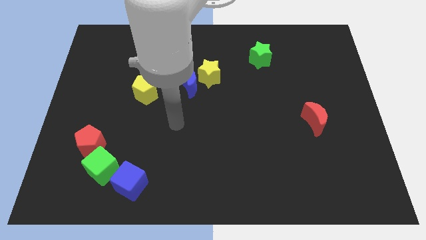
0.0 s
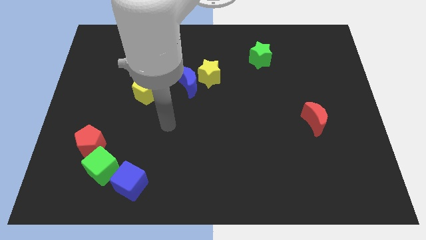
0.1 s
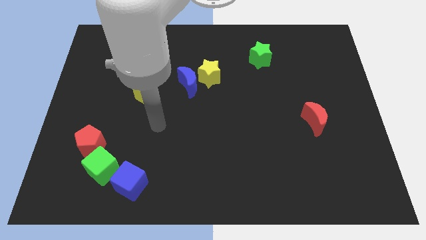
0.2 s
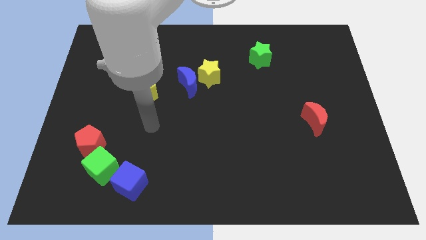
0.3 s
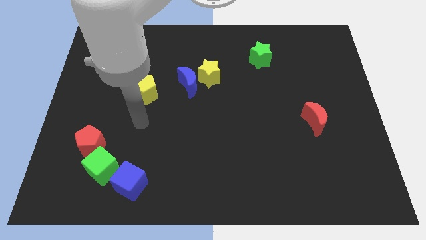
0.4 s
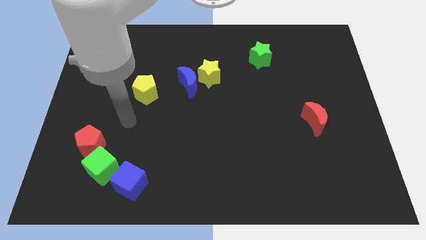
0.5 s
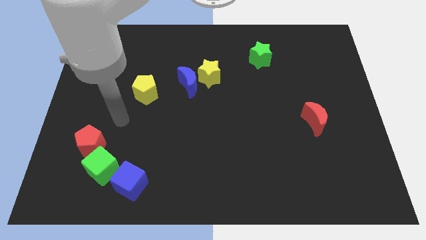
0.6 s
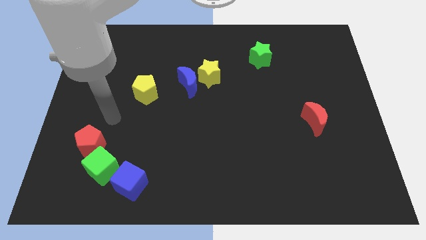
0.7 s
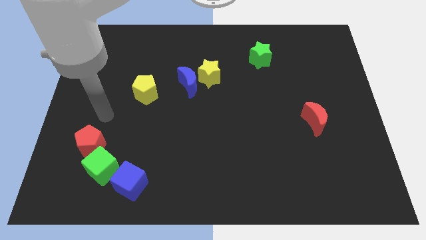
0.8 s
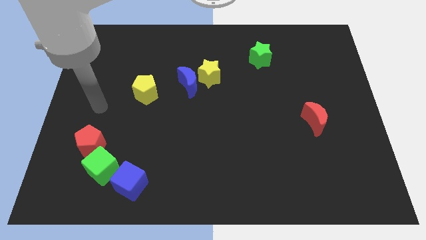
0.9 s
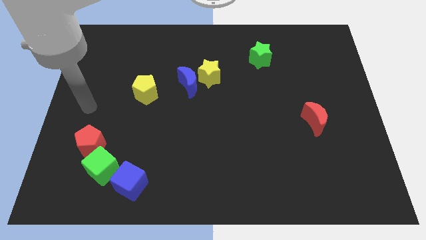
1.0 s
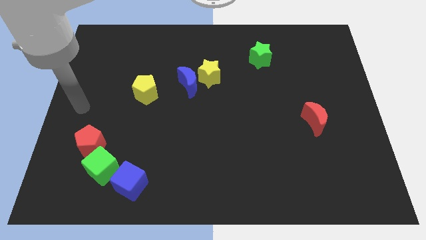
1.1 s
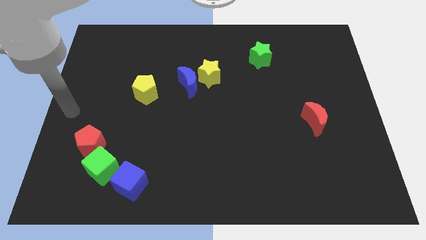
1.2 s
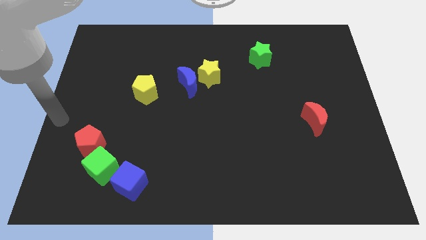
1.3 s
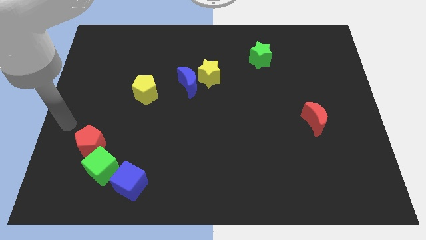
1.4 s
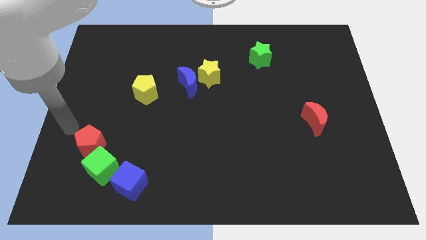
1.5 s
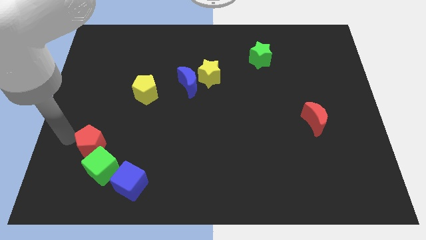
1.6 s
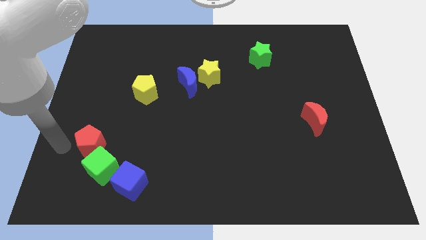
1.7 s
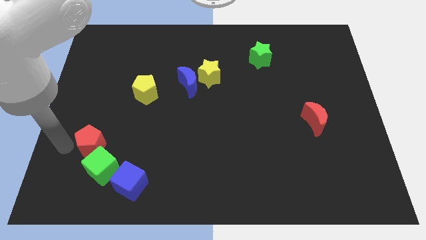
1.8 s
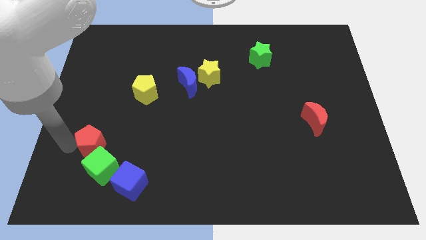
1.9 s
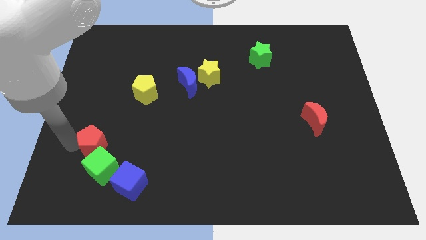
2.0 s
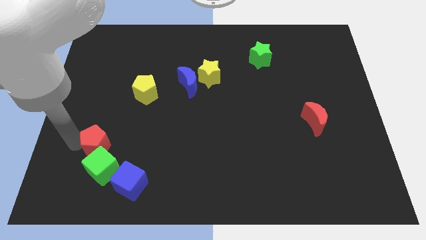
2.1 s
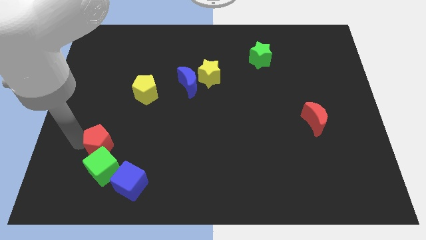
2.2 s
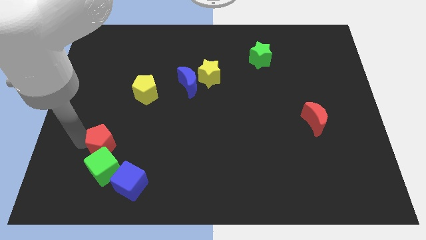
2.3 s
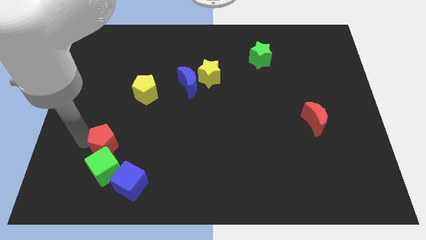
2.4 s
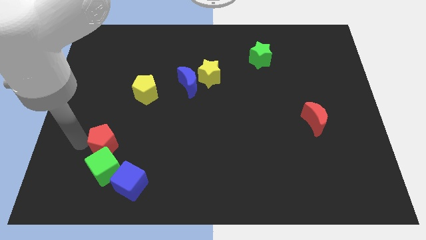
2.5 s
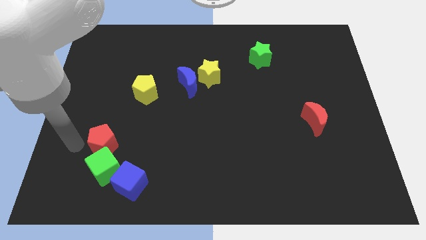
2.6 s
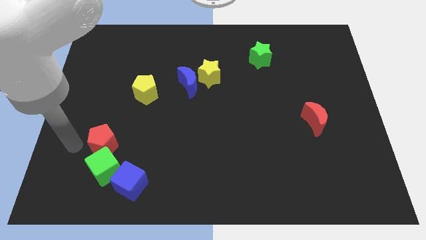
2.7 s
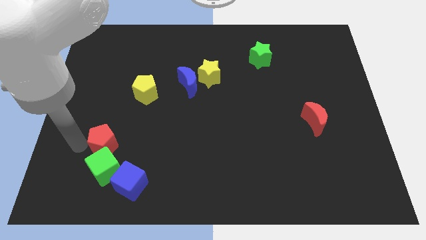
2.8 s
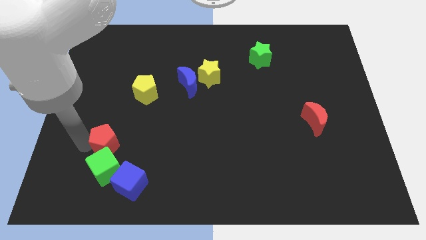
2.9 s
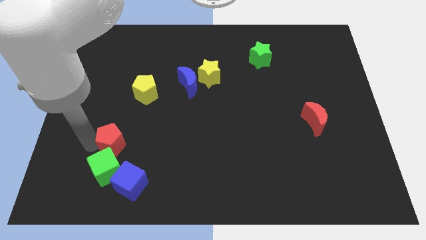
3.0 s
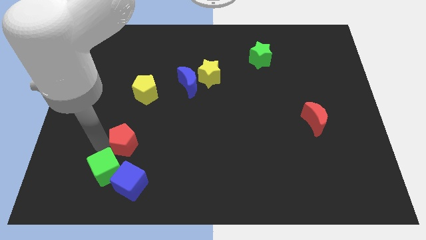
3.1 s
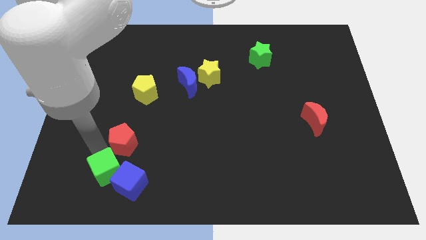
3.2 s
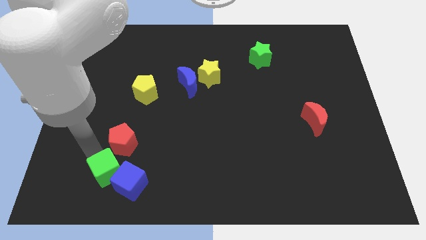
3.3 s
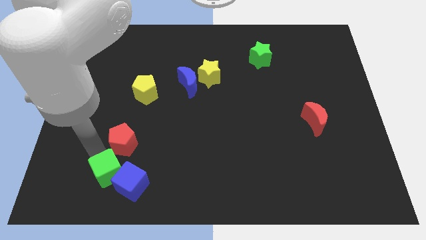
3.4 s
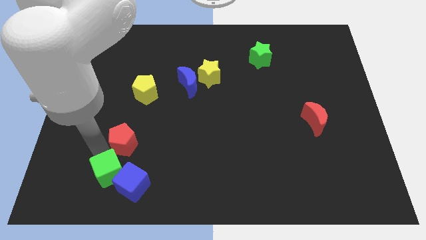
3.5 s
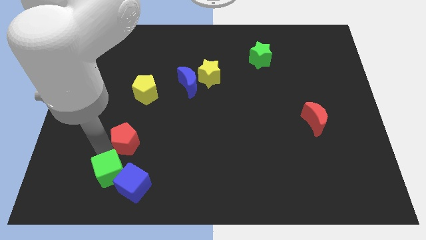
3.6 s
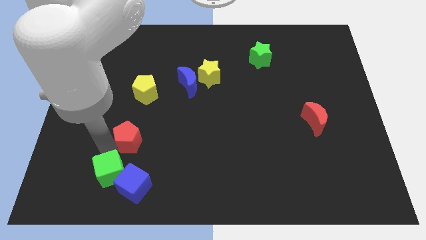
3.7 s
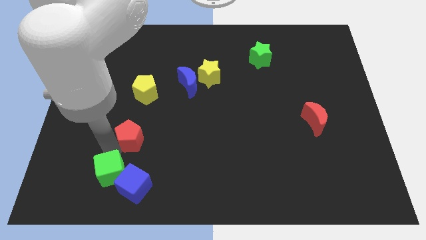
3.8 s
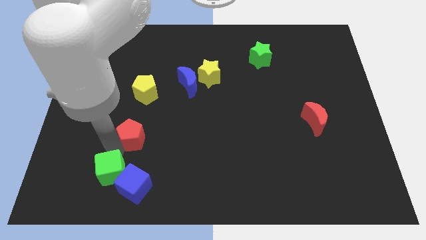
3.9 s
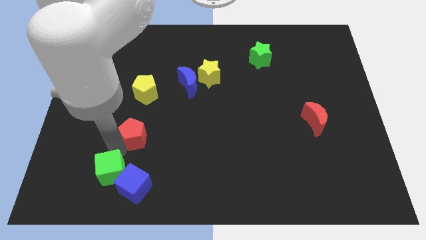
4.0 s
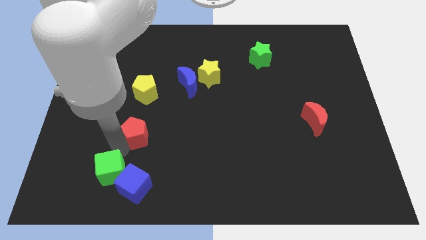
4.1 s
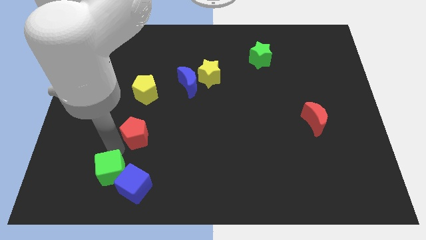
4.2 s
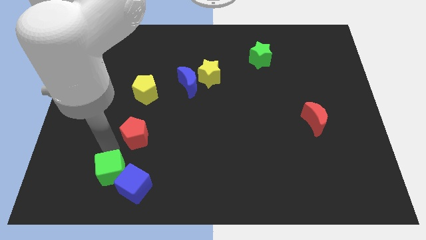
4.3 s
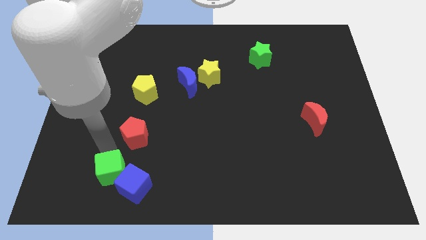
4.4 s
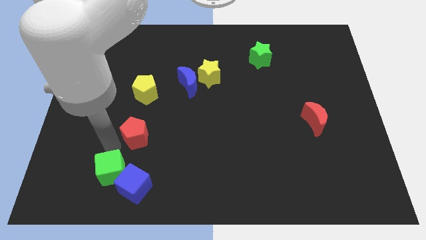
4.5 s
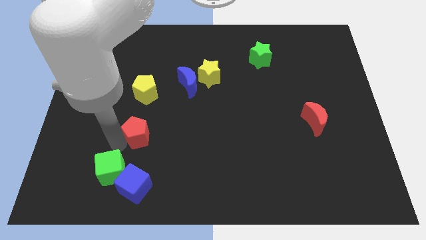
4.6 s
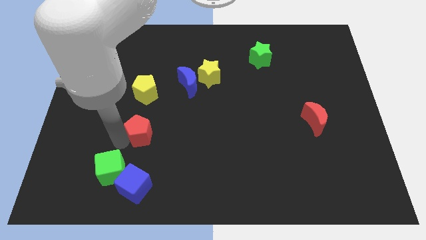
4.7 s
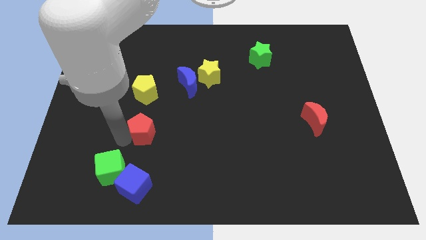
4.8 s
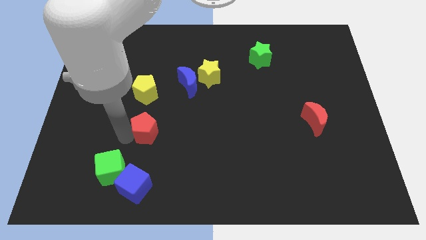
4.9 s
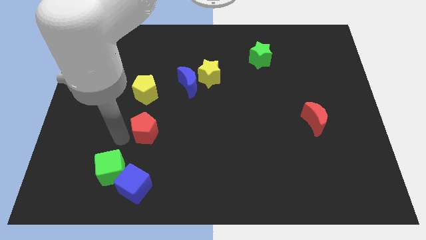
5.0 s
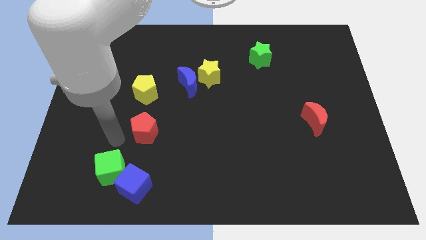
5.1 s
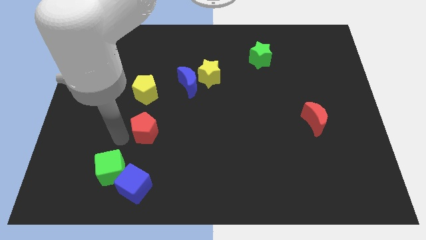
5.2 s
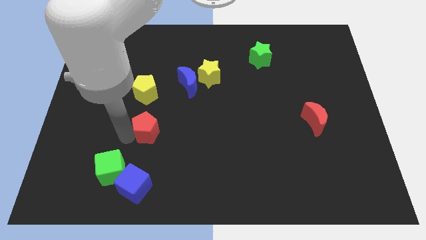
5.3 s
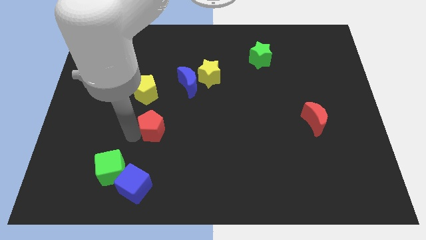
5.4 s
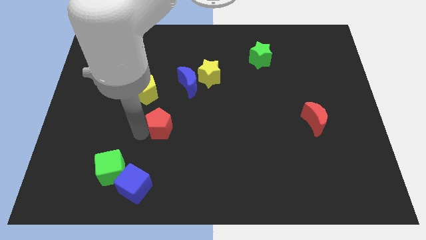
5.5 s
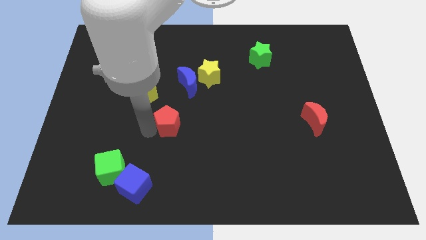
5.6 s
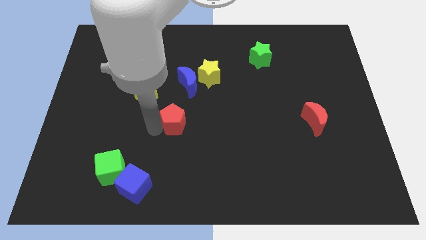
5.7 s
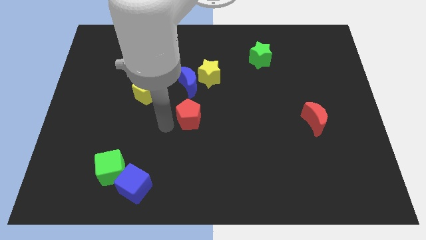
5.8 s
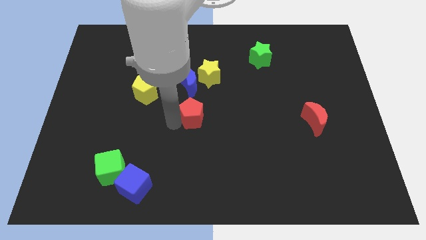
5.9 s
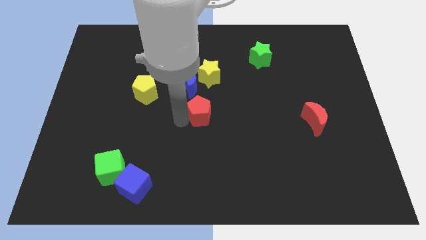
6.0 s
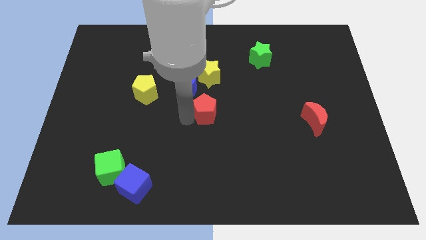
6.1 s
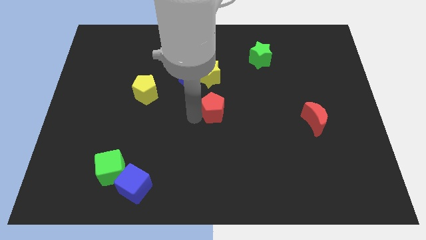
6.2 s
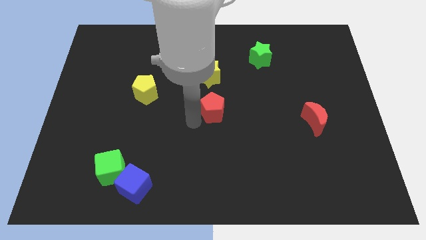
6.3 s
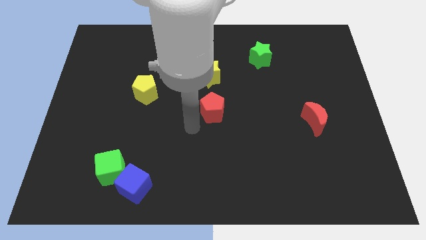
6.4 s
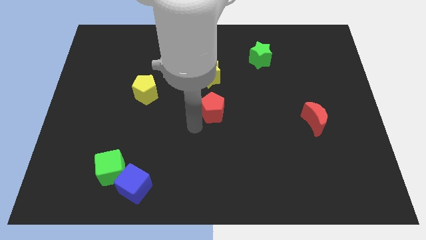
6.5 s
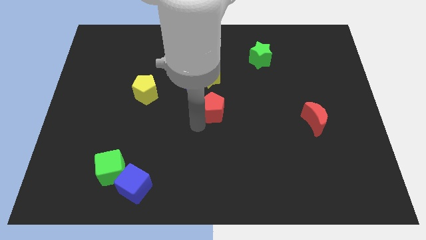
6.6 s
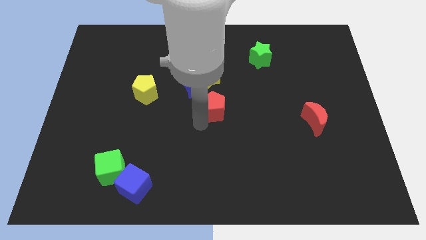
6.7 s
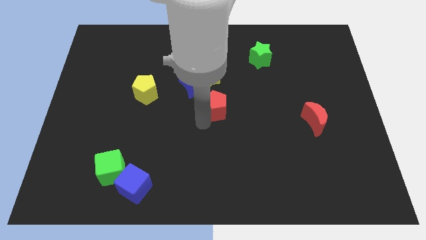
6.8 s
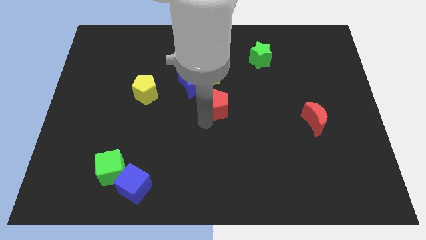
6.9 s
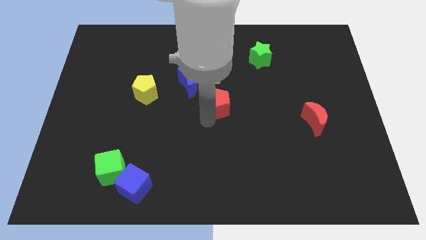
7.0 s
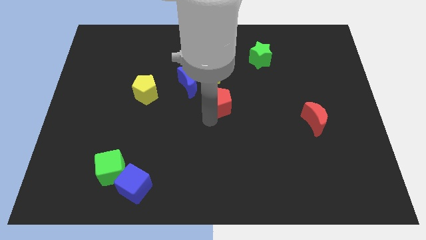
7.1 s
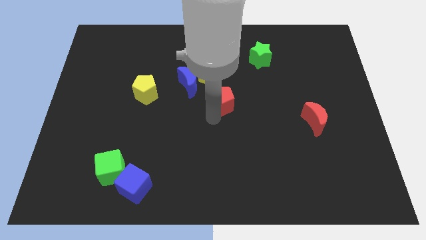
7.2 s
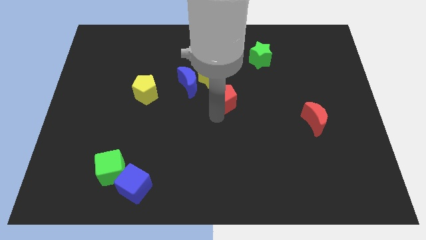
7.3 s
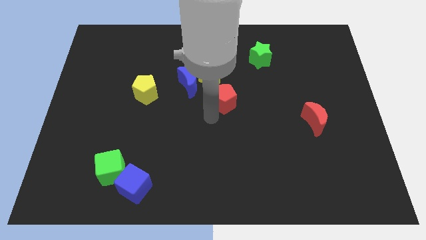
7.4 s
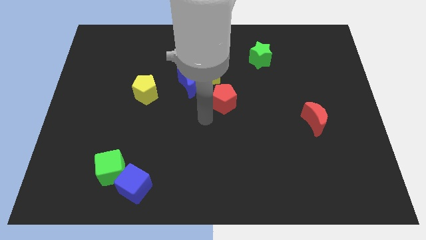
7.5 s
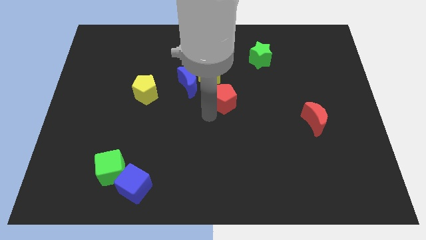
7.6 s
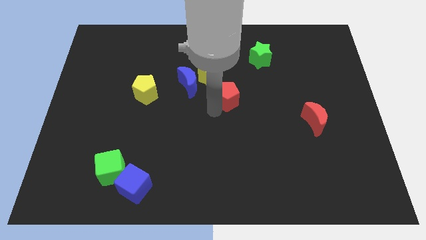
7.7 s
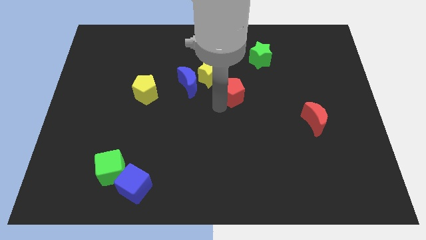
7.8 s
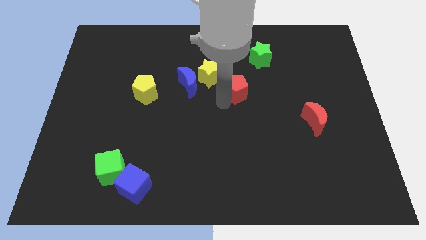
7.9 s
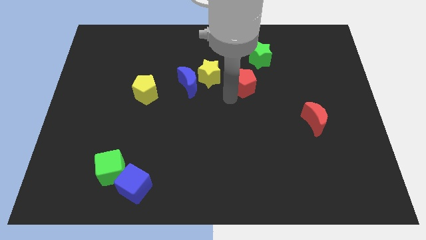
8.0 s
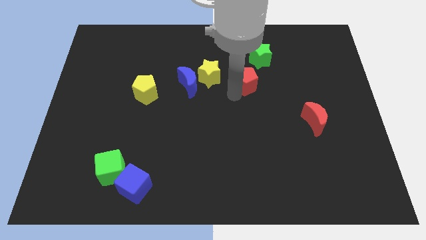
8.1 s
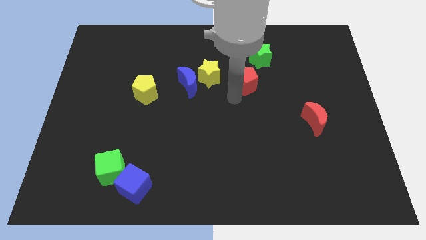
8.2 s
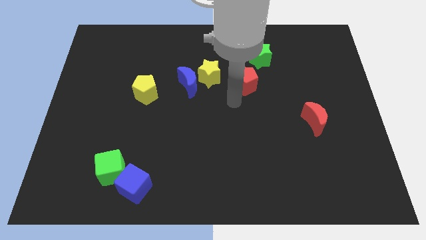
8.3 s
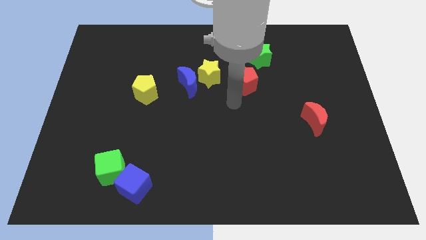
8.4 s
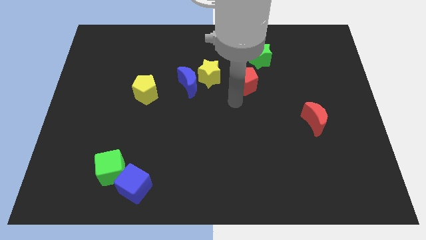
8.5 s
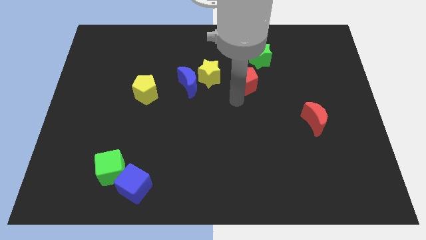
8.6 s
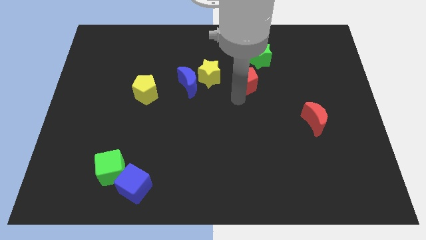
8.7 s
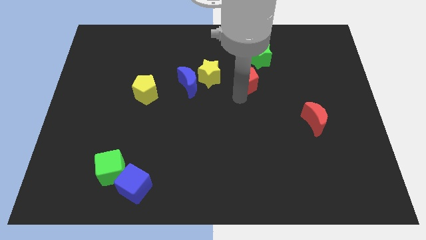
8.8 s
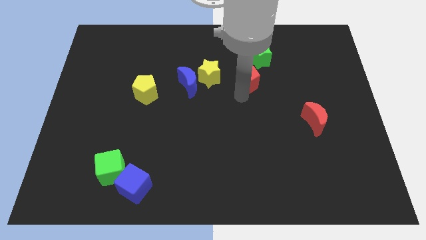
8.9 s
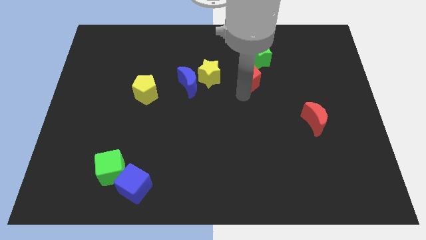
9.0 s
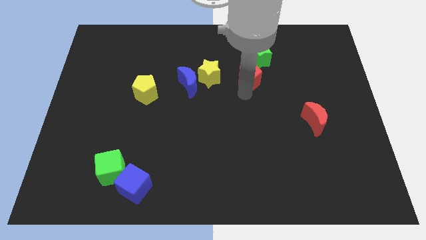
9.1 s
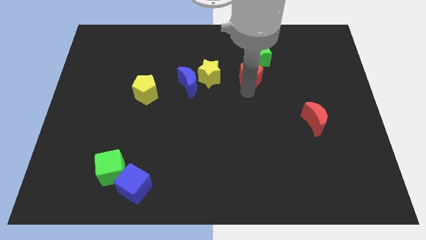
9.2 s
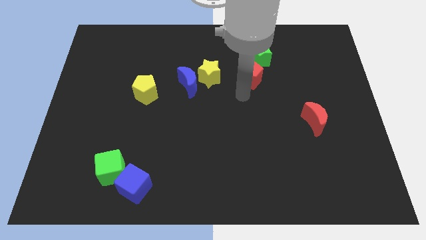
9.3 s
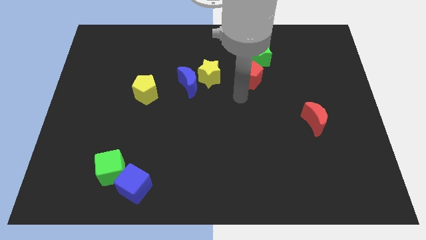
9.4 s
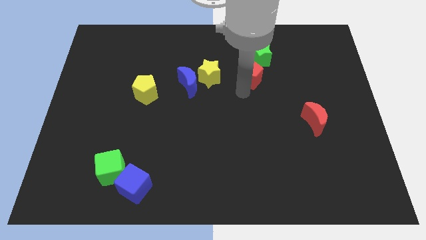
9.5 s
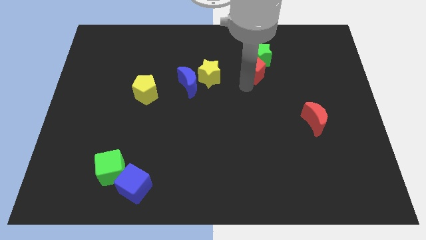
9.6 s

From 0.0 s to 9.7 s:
slide the red pentagon close to the green star
